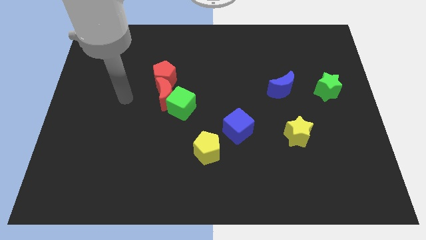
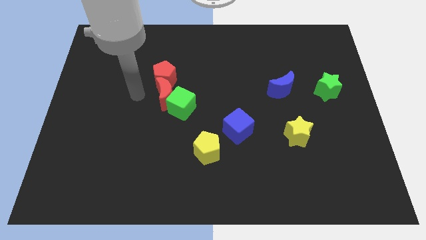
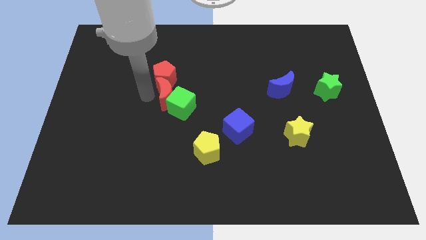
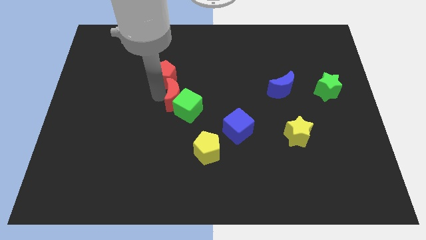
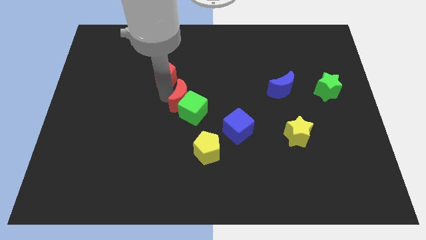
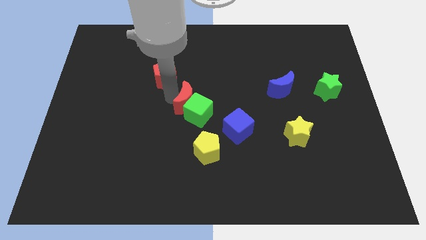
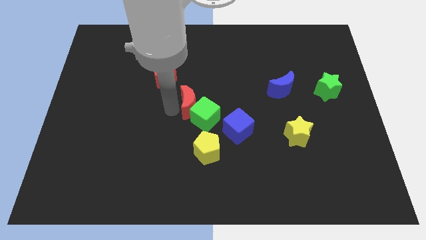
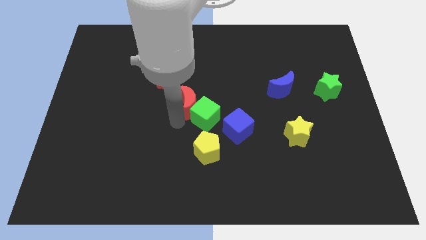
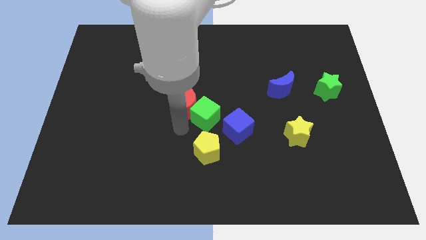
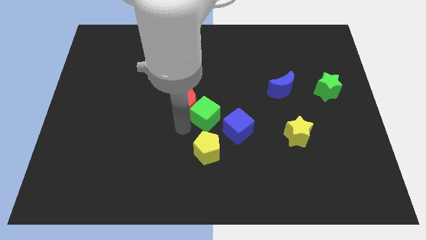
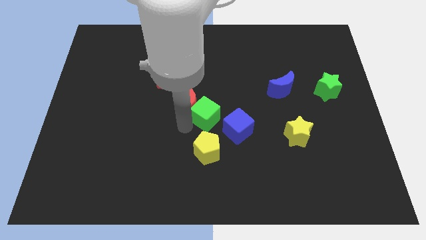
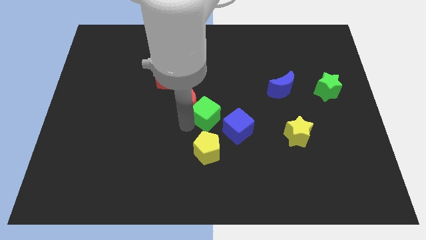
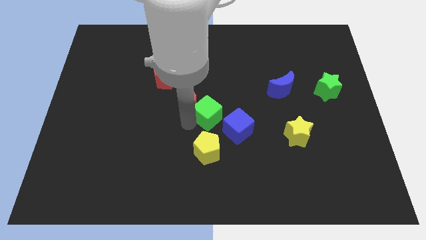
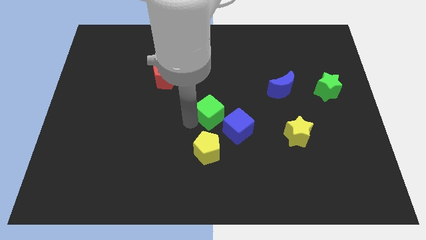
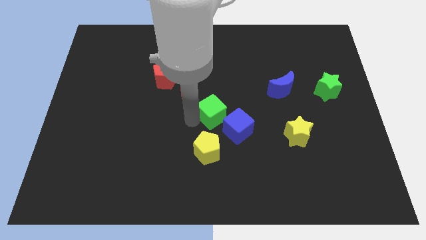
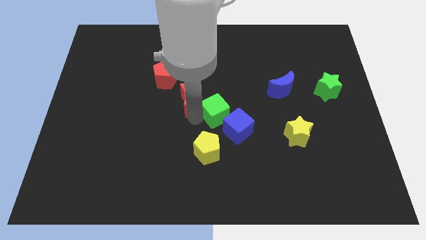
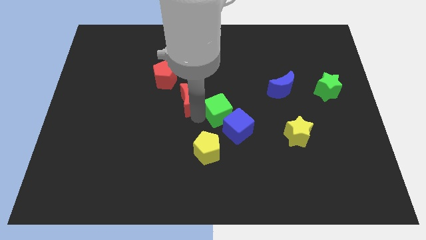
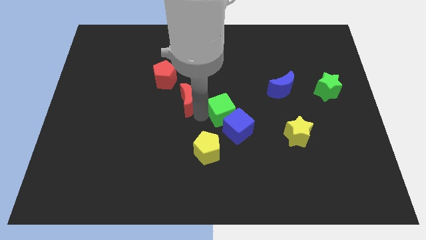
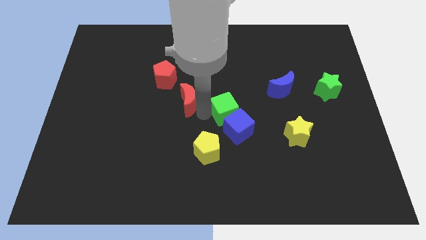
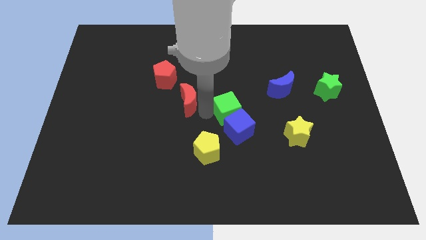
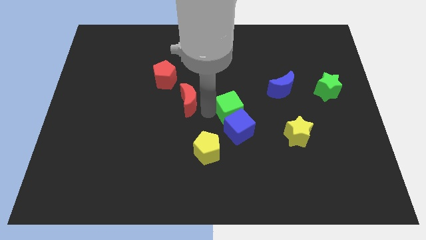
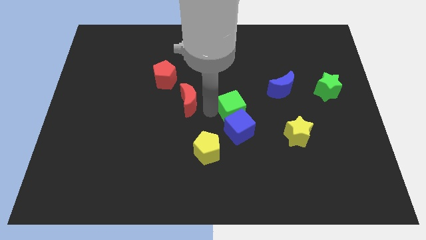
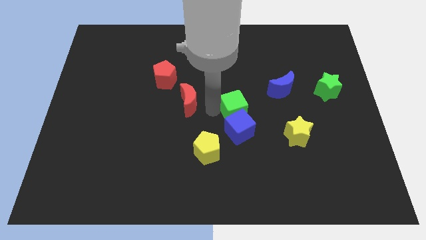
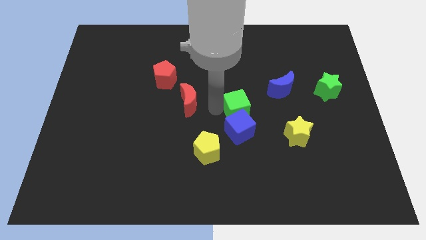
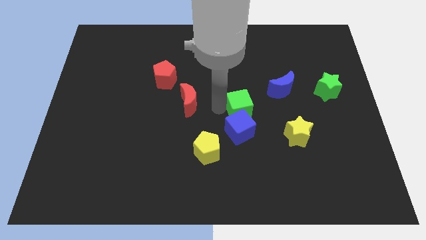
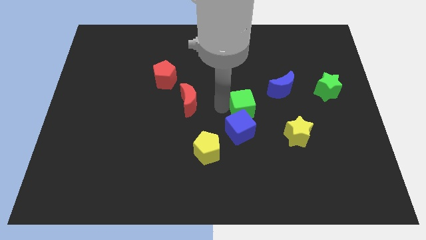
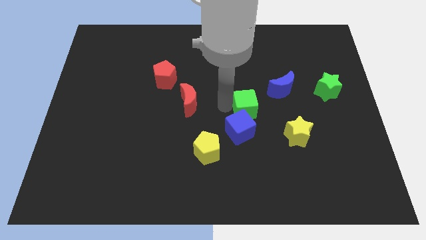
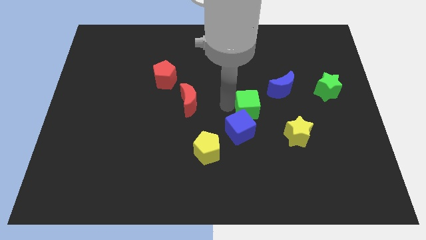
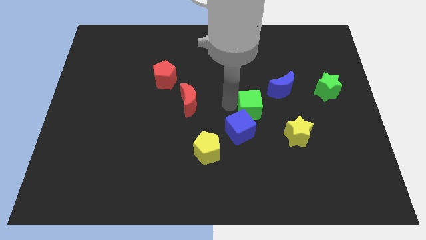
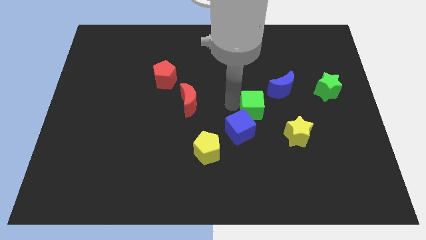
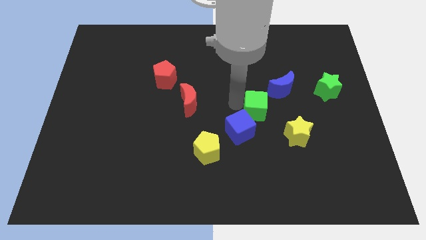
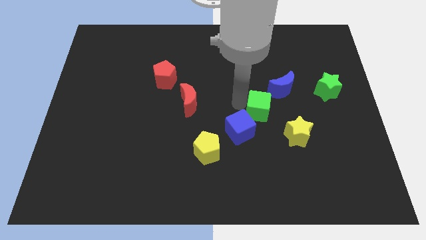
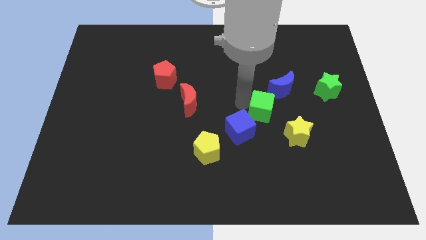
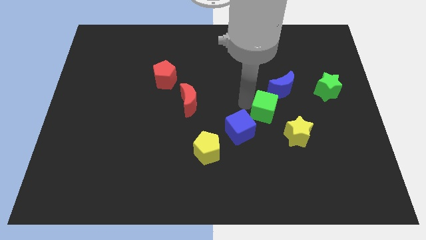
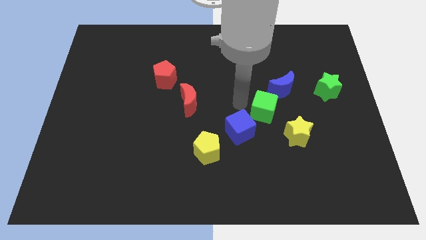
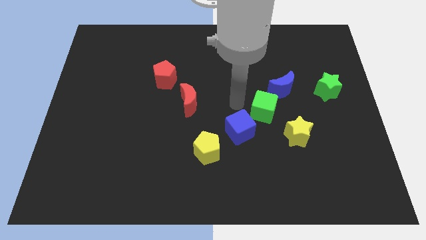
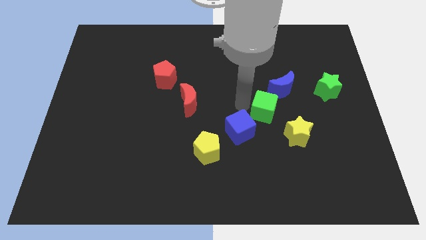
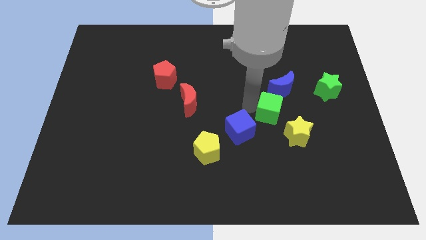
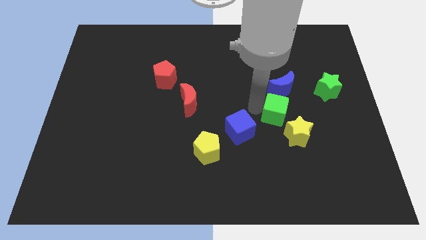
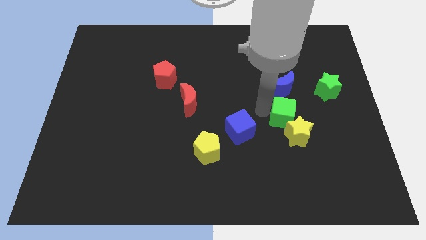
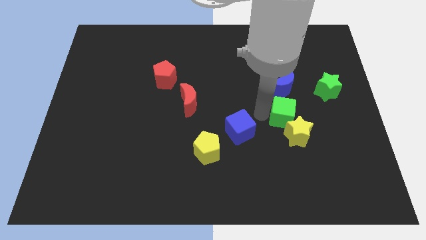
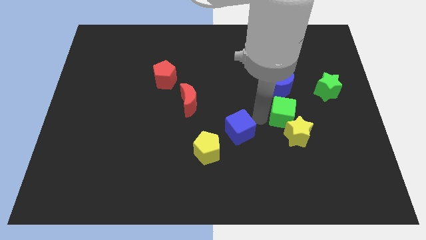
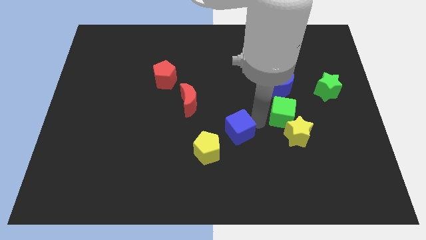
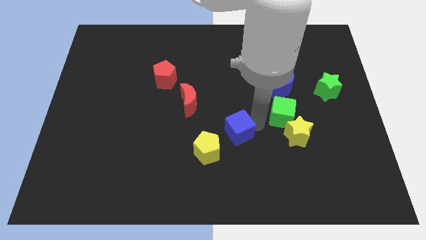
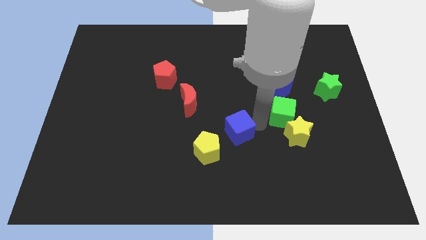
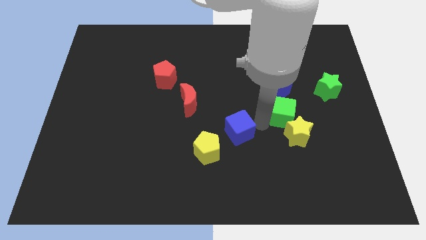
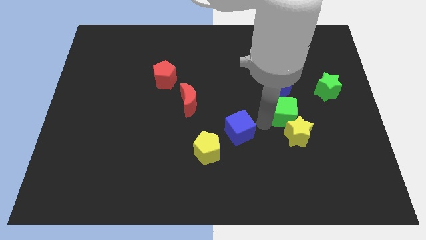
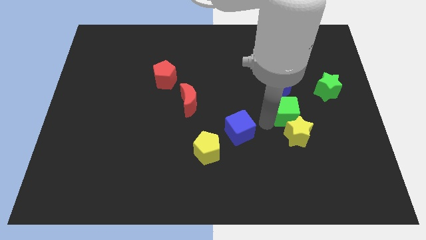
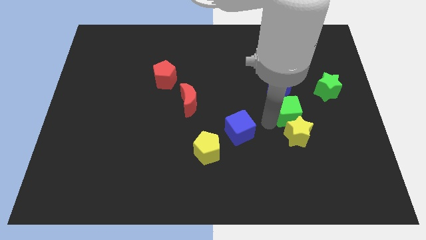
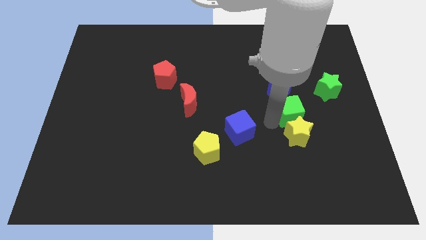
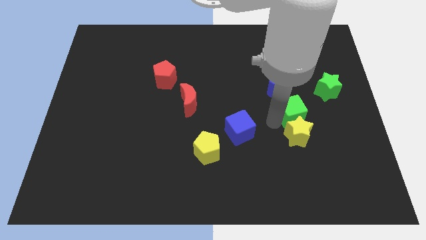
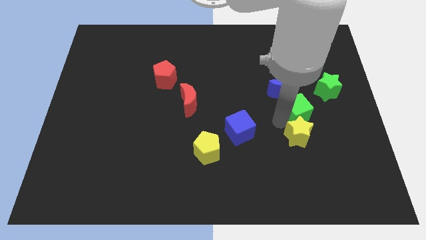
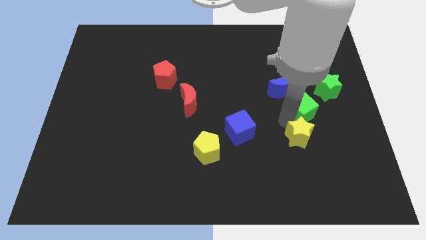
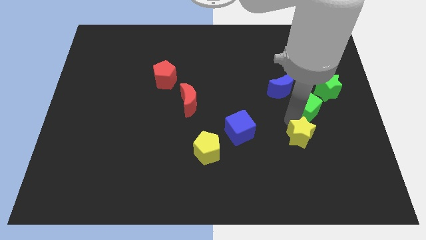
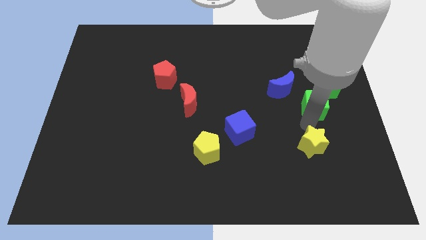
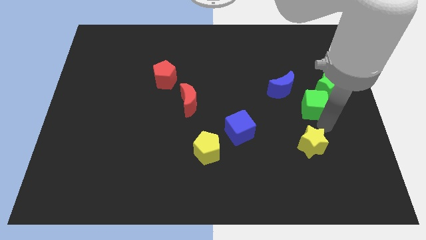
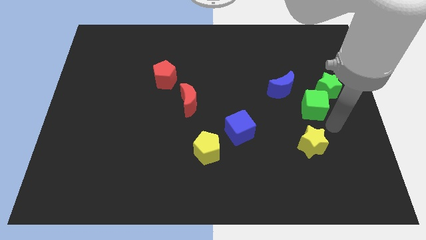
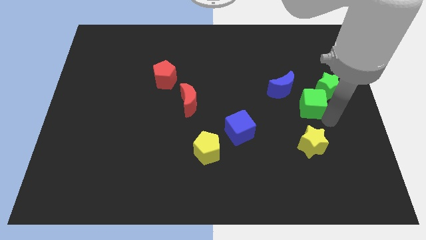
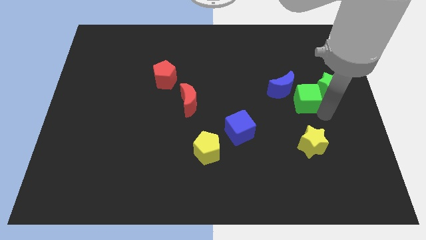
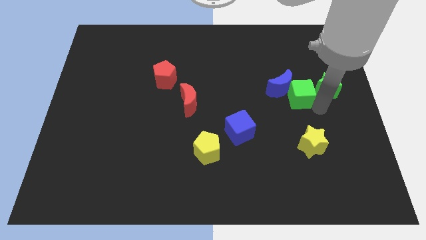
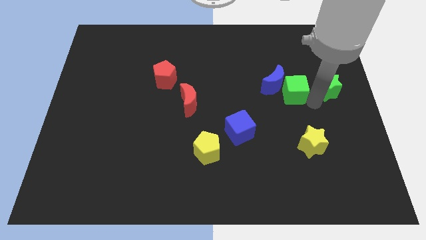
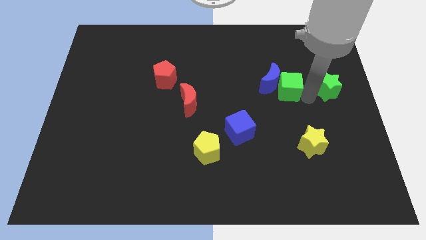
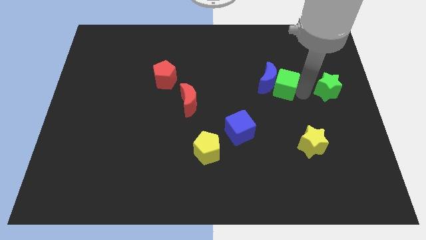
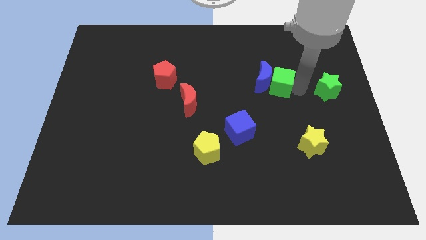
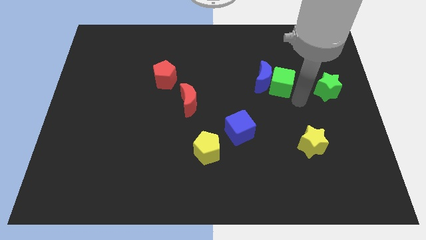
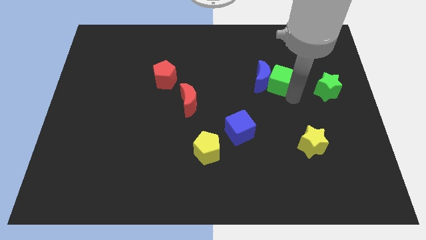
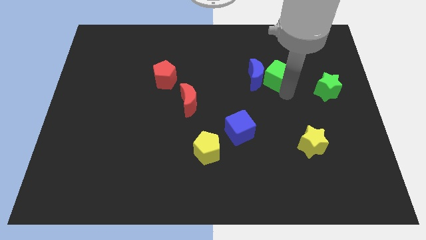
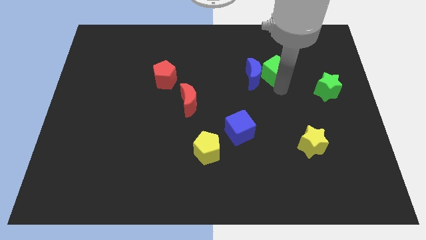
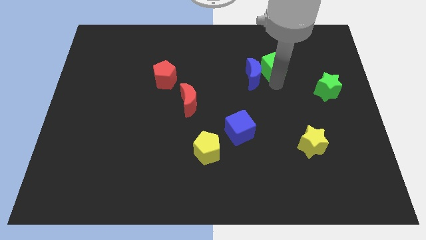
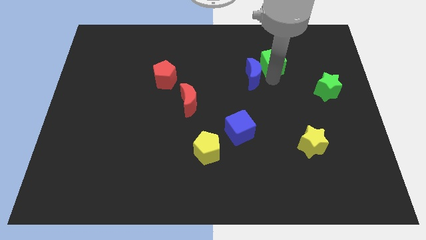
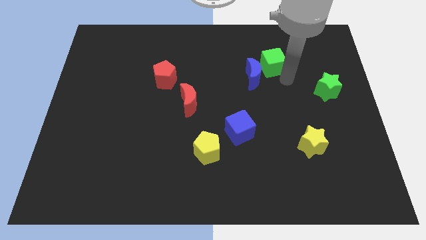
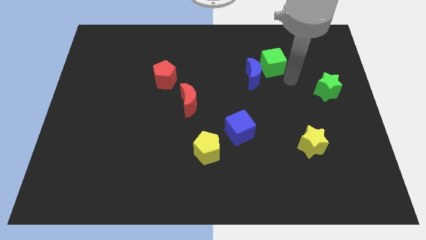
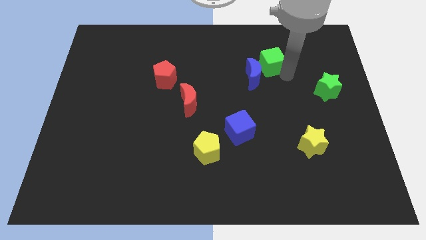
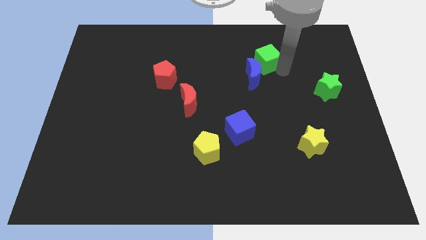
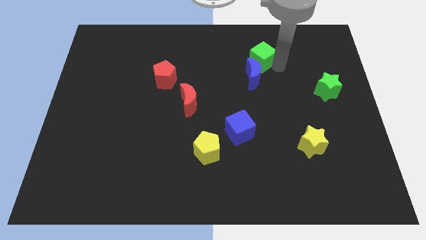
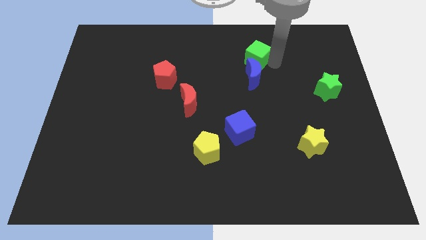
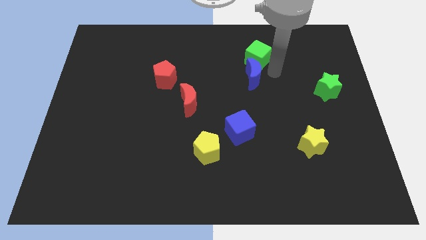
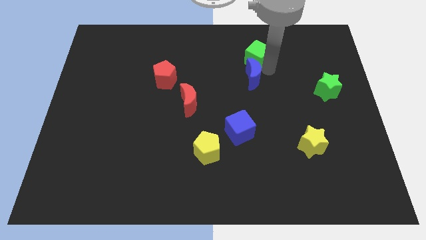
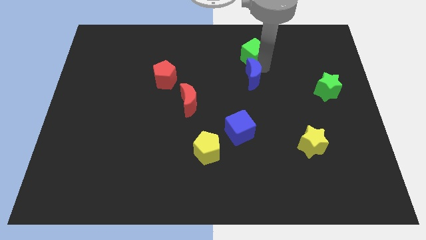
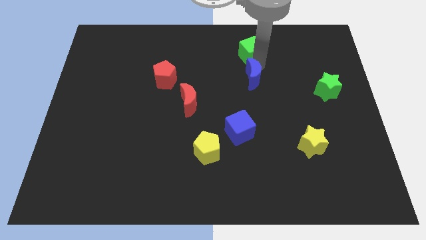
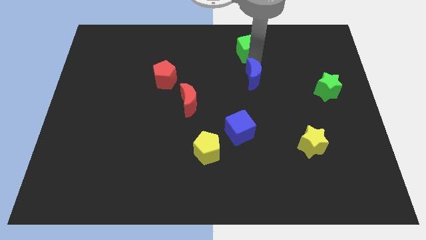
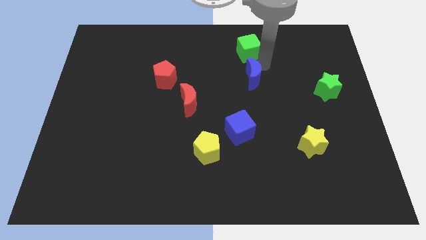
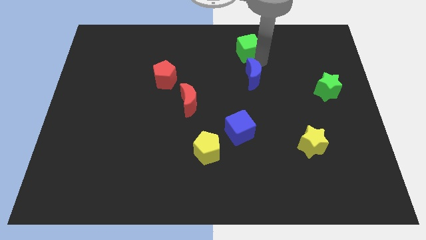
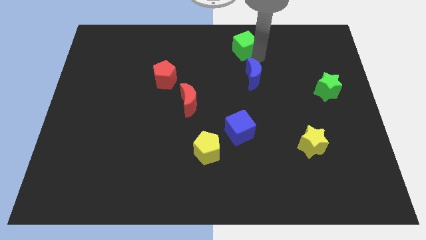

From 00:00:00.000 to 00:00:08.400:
move the green cube to the top side
